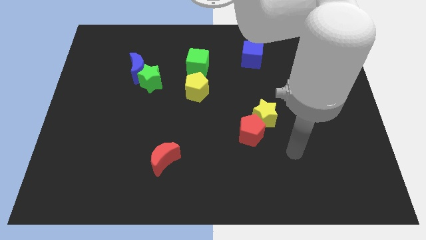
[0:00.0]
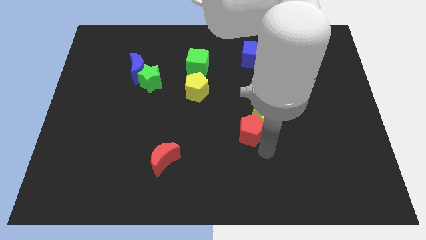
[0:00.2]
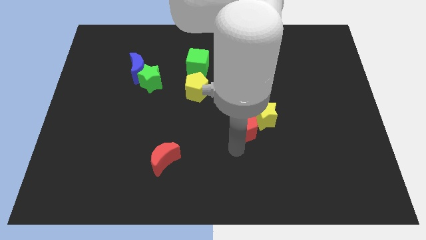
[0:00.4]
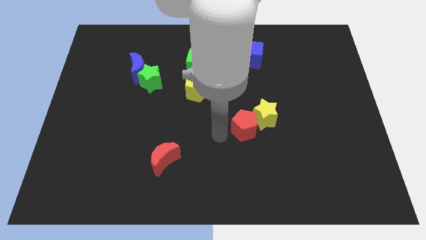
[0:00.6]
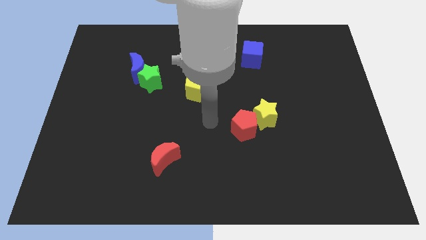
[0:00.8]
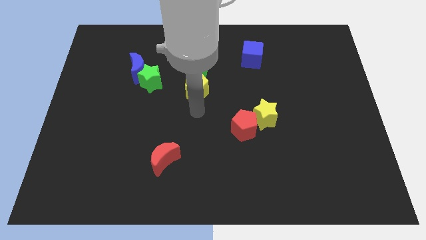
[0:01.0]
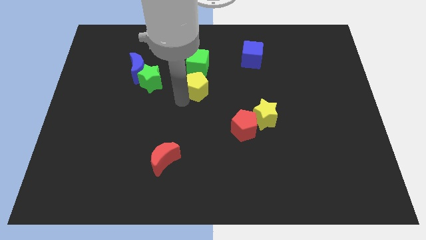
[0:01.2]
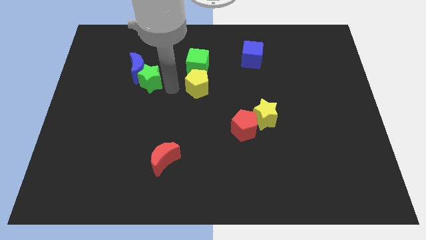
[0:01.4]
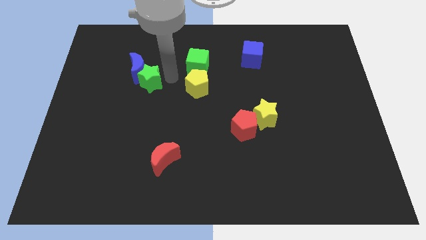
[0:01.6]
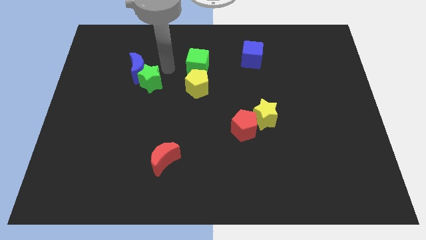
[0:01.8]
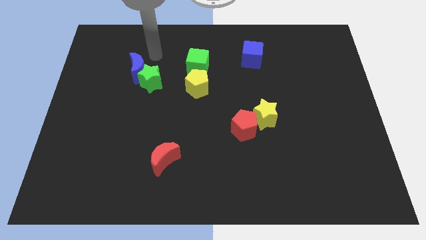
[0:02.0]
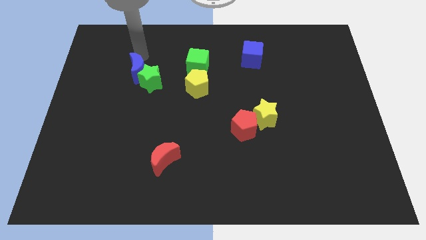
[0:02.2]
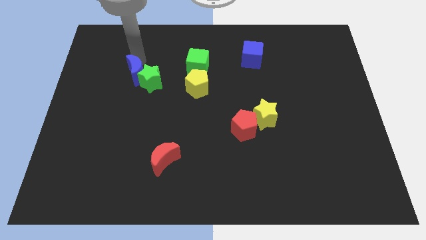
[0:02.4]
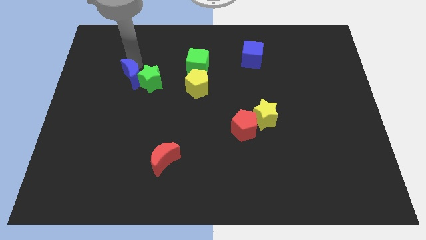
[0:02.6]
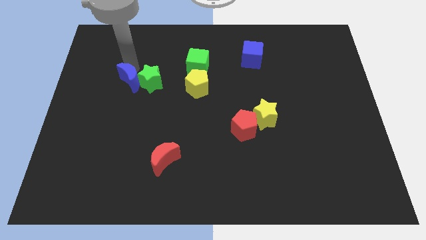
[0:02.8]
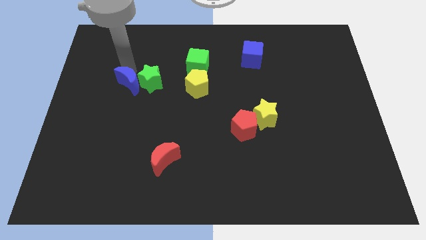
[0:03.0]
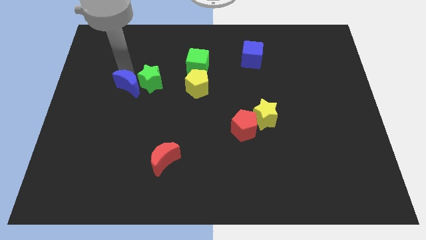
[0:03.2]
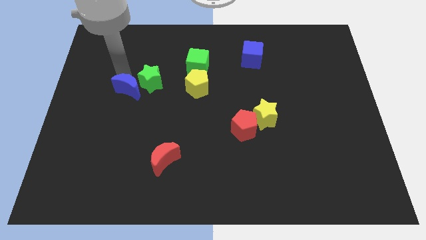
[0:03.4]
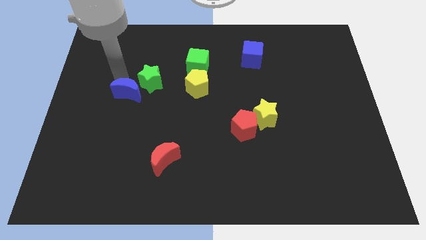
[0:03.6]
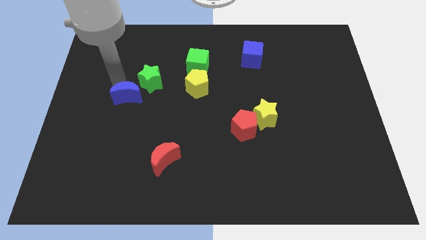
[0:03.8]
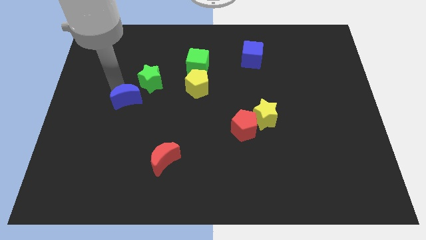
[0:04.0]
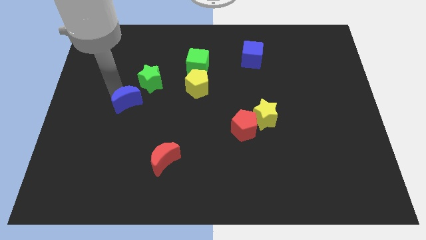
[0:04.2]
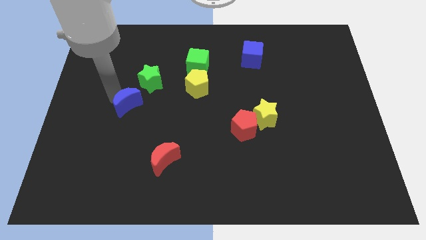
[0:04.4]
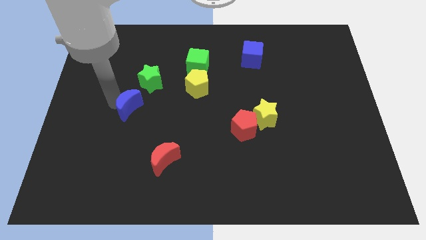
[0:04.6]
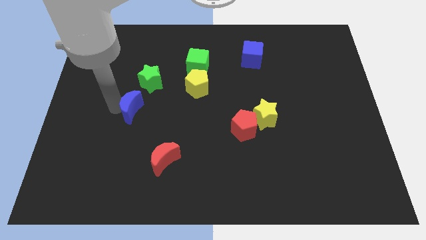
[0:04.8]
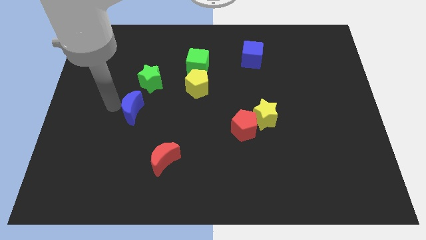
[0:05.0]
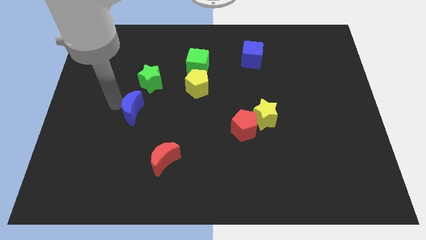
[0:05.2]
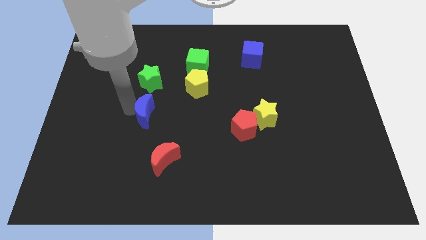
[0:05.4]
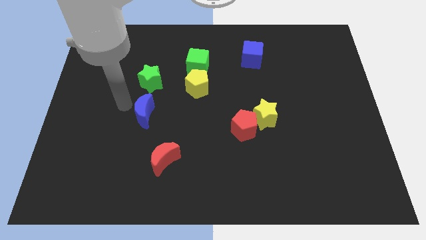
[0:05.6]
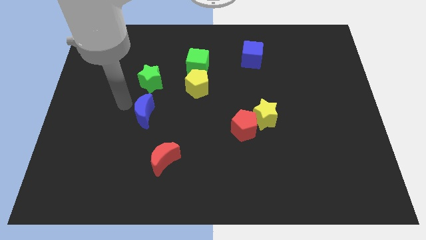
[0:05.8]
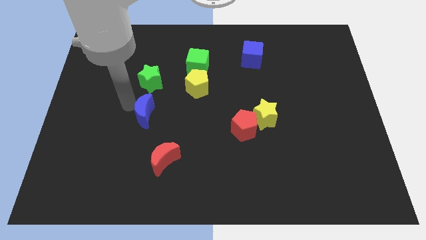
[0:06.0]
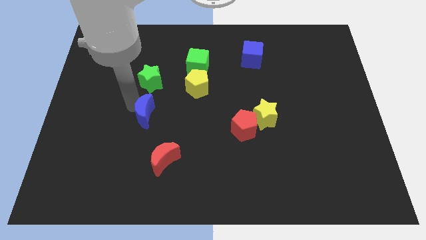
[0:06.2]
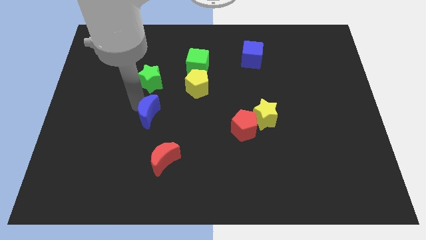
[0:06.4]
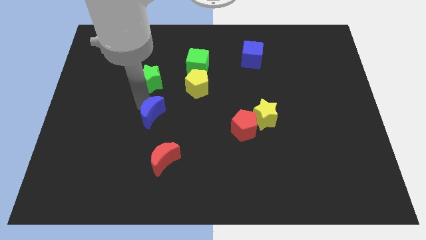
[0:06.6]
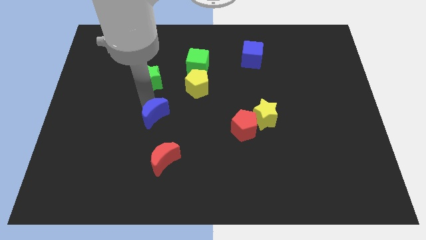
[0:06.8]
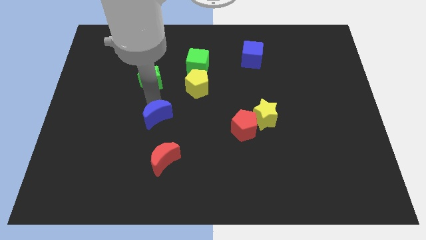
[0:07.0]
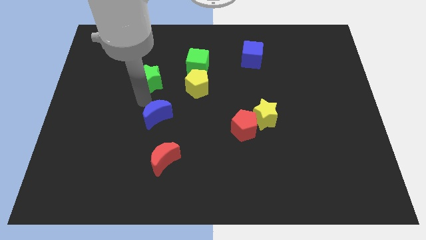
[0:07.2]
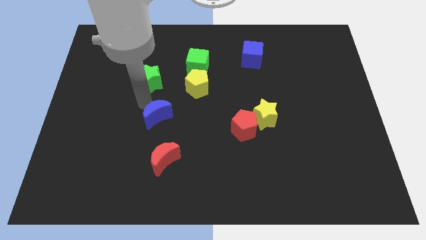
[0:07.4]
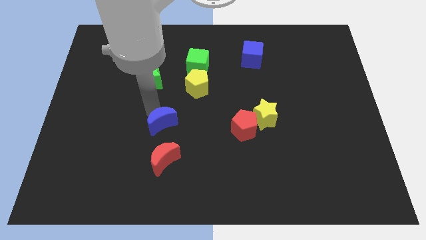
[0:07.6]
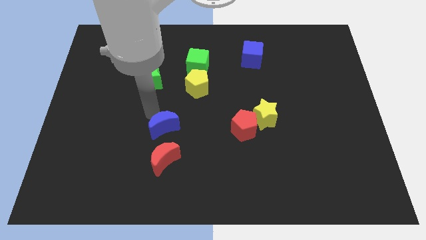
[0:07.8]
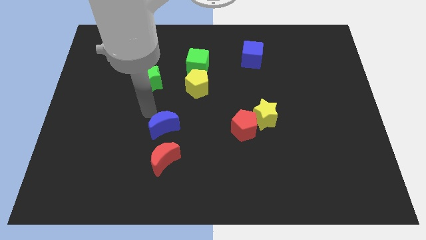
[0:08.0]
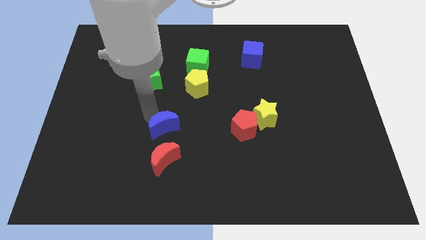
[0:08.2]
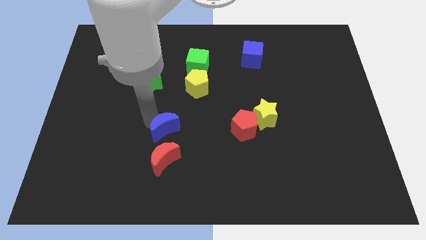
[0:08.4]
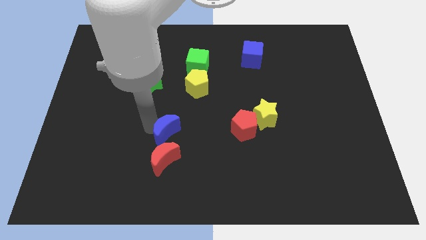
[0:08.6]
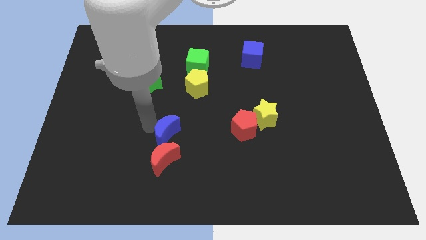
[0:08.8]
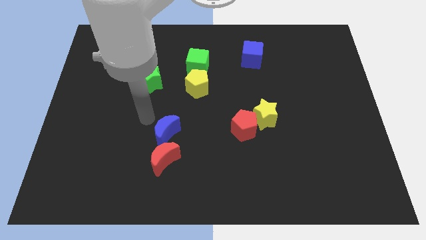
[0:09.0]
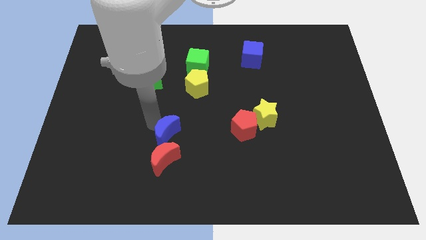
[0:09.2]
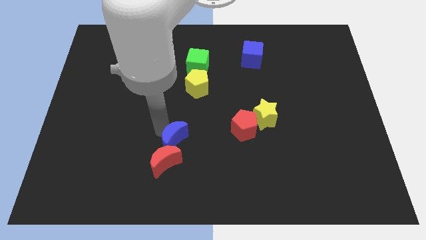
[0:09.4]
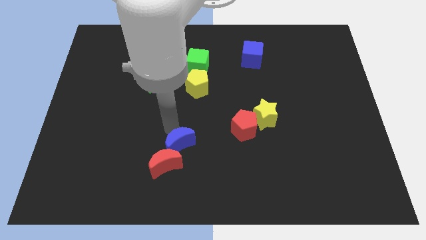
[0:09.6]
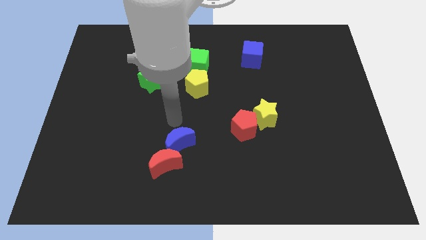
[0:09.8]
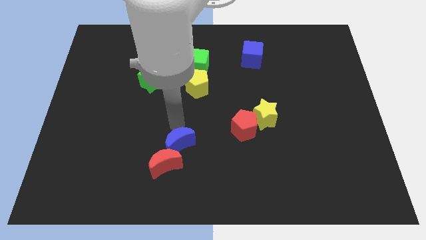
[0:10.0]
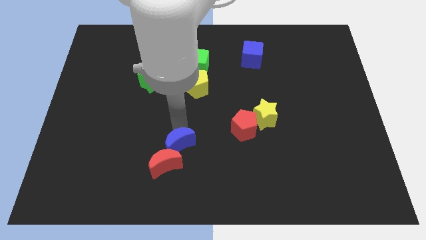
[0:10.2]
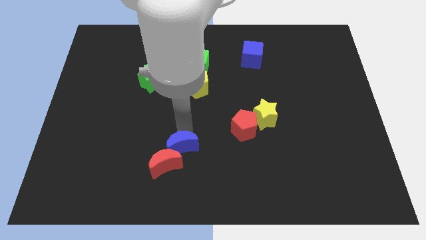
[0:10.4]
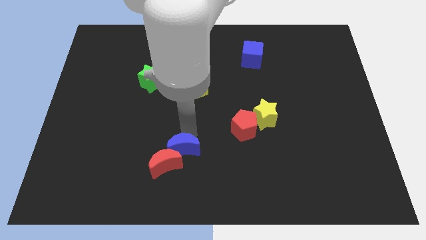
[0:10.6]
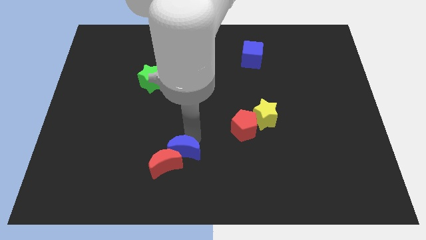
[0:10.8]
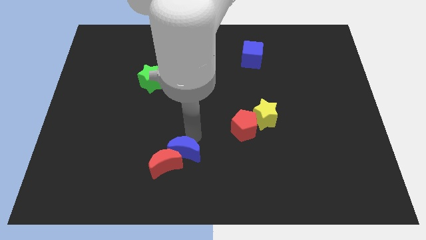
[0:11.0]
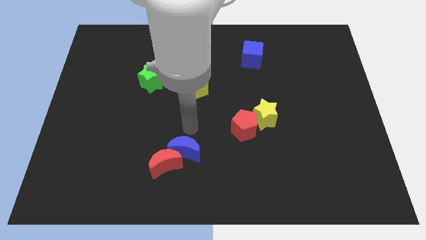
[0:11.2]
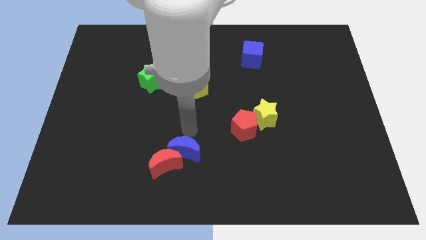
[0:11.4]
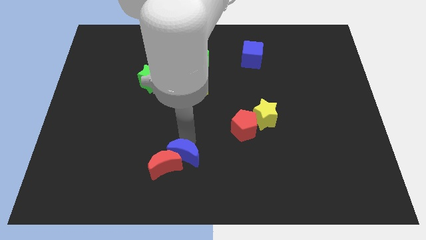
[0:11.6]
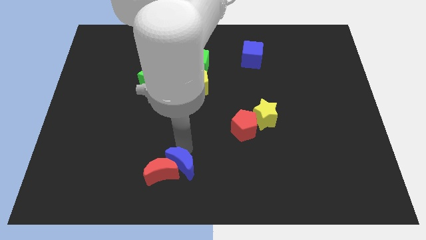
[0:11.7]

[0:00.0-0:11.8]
put the blue moon to the bottom side
